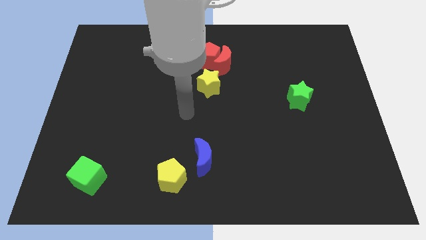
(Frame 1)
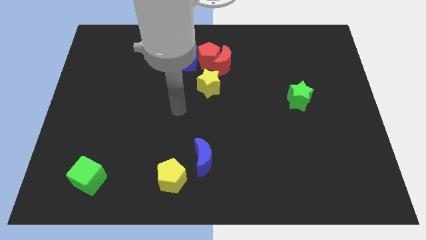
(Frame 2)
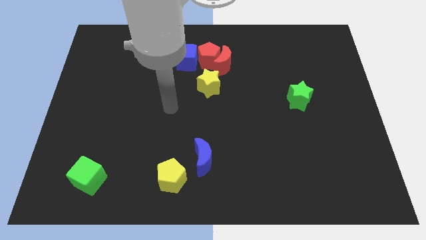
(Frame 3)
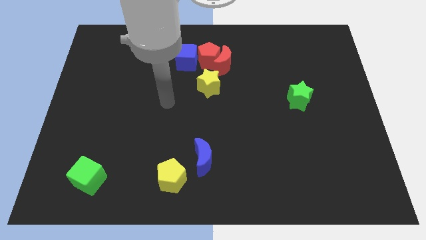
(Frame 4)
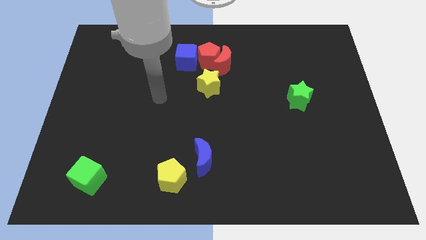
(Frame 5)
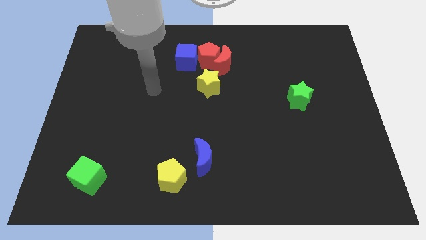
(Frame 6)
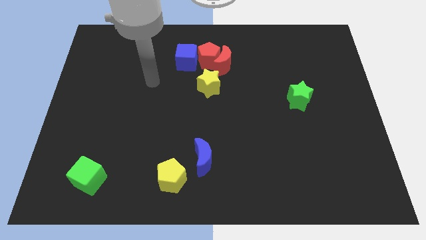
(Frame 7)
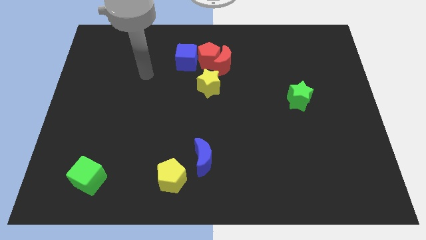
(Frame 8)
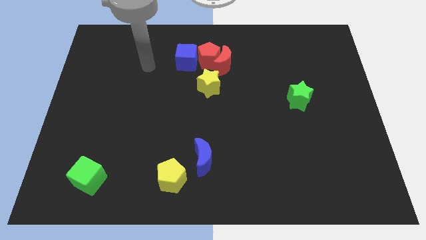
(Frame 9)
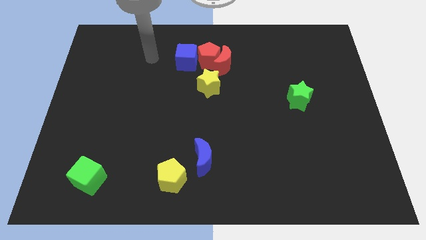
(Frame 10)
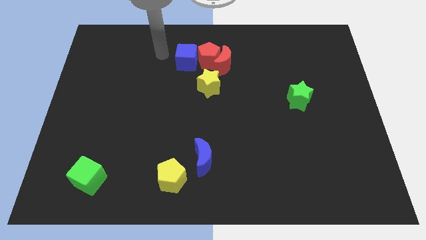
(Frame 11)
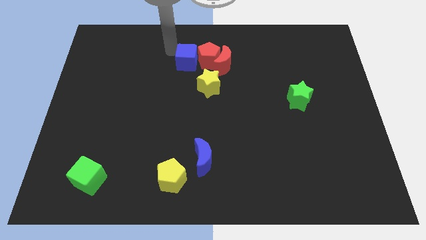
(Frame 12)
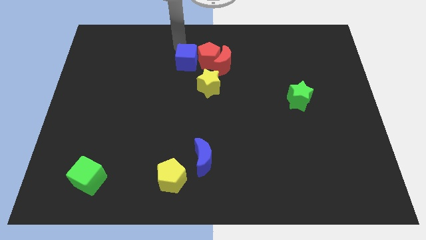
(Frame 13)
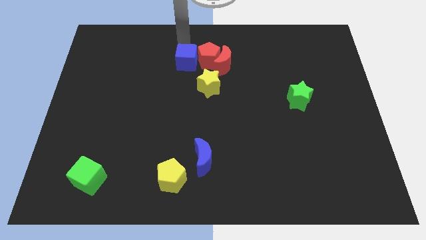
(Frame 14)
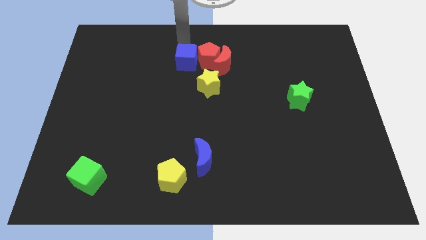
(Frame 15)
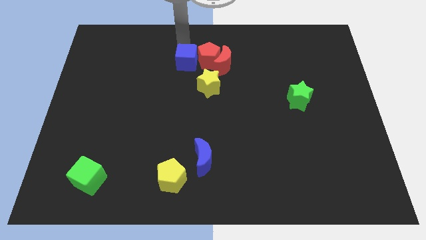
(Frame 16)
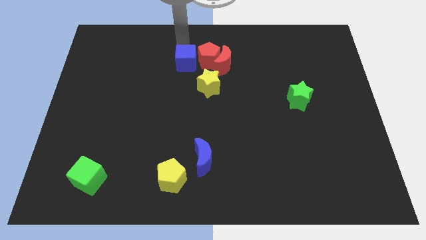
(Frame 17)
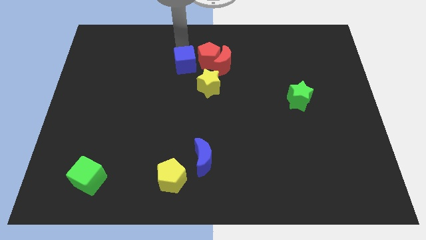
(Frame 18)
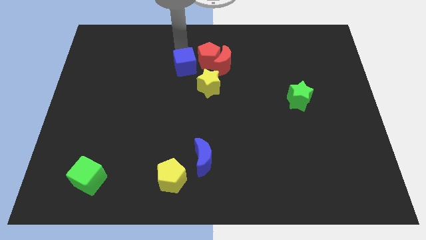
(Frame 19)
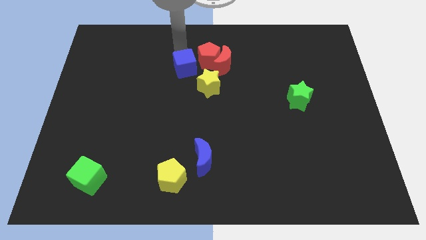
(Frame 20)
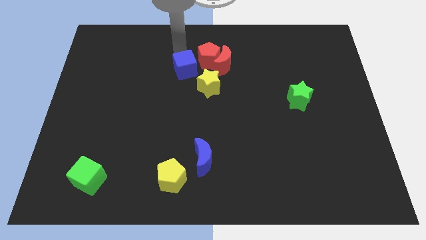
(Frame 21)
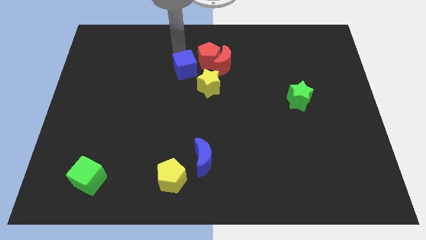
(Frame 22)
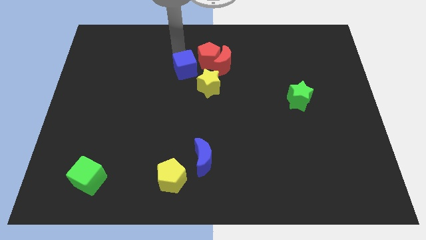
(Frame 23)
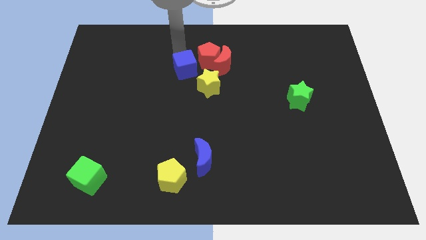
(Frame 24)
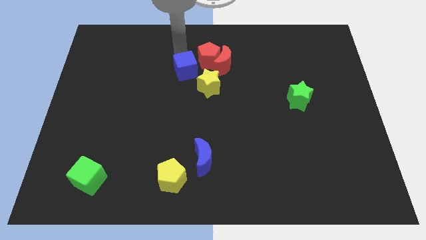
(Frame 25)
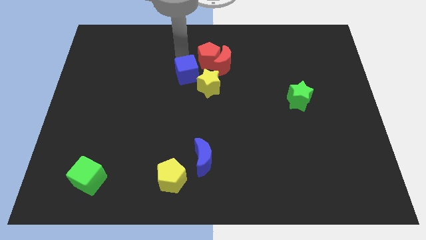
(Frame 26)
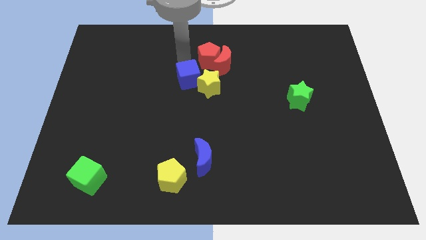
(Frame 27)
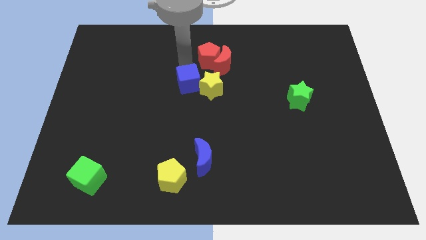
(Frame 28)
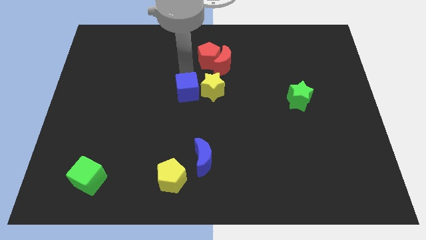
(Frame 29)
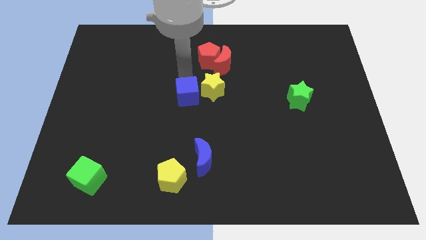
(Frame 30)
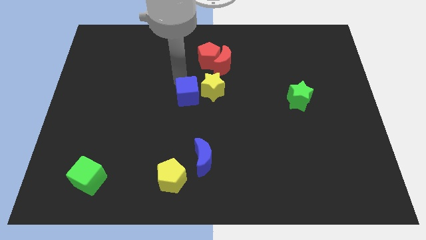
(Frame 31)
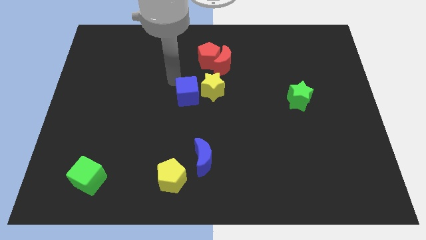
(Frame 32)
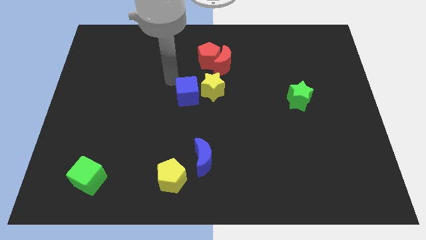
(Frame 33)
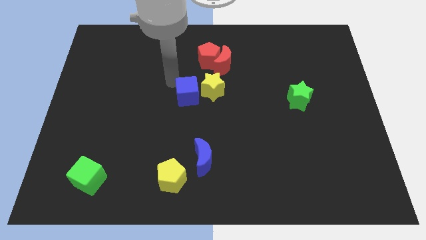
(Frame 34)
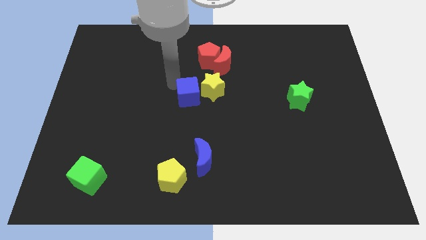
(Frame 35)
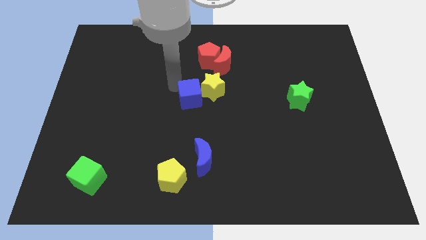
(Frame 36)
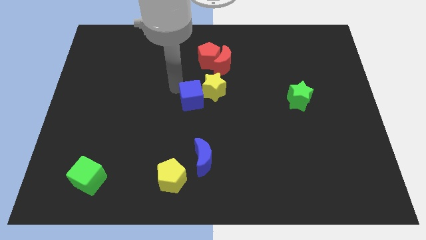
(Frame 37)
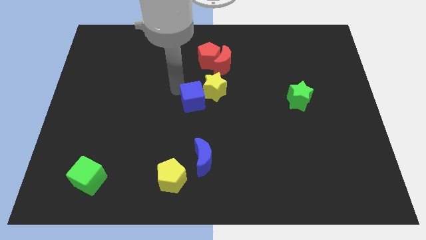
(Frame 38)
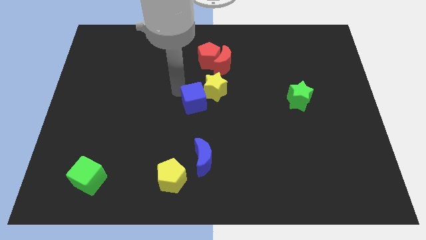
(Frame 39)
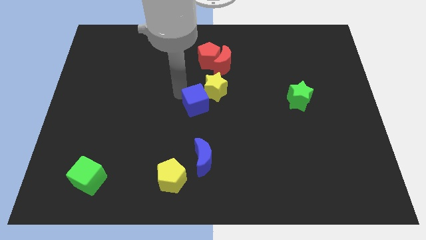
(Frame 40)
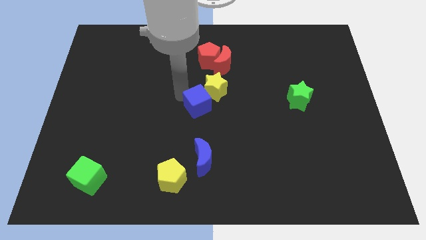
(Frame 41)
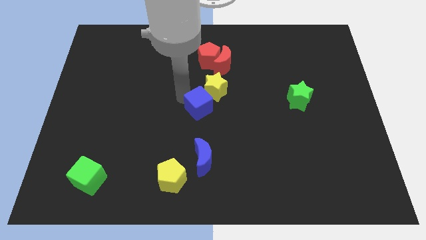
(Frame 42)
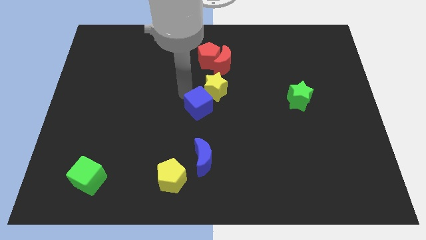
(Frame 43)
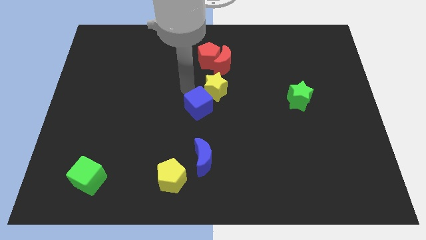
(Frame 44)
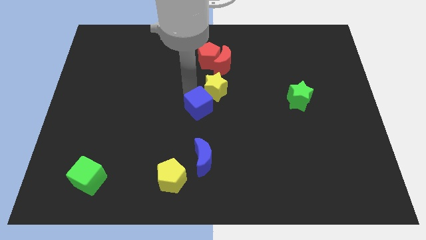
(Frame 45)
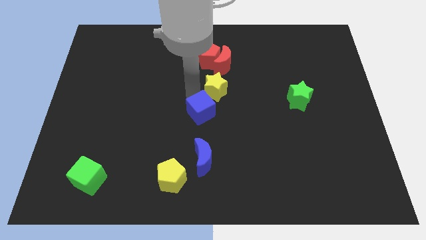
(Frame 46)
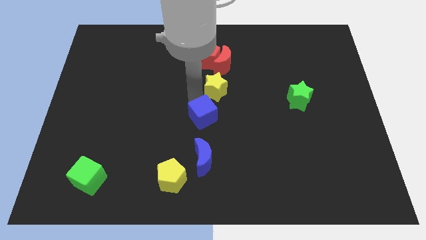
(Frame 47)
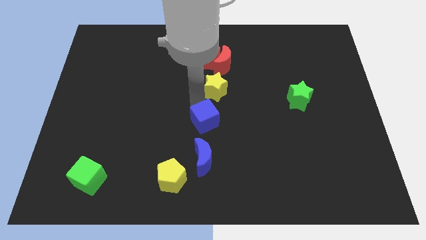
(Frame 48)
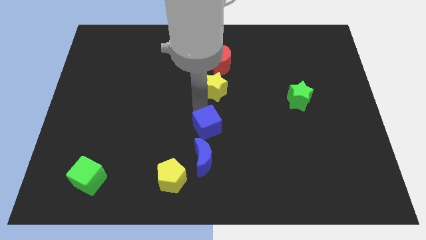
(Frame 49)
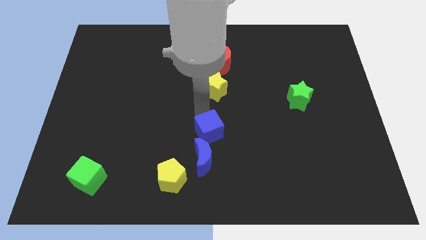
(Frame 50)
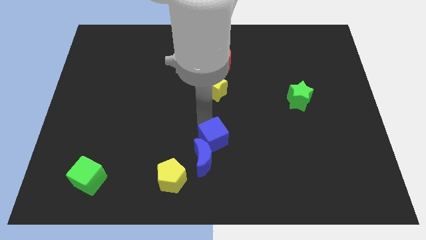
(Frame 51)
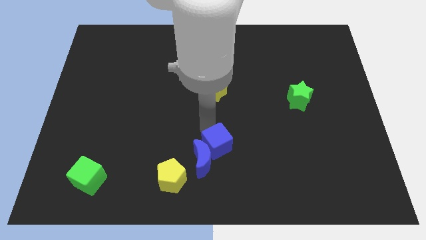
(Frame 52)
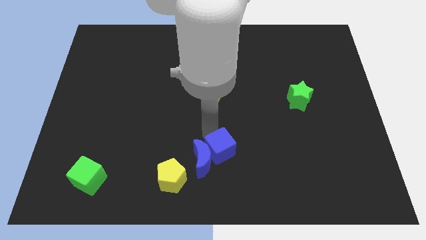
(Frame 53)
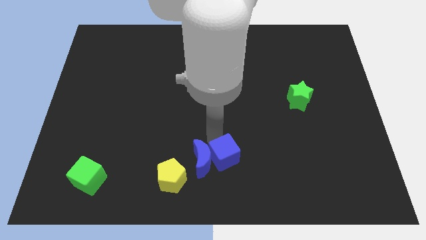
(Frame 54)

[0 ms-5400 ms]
move the blue cube to the bottom

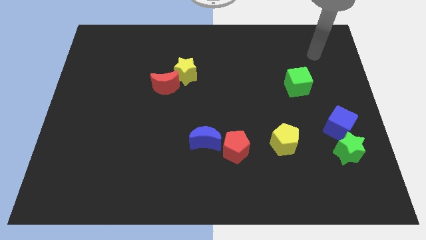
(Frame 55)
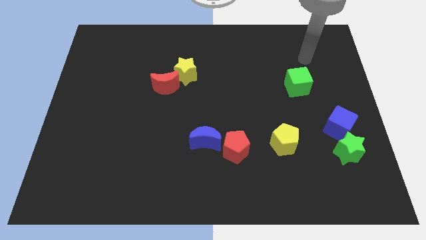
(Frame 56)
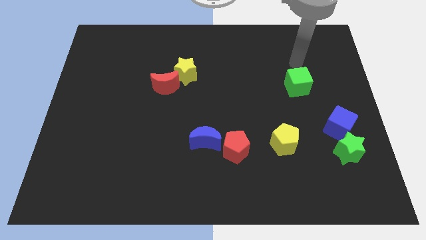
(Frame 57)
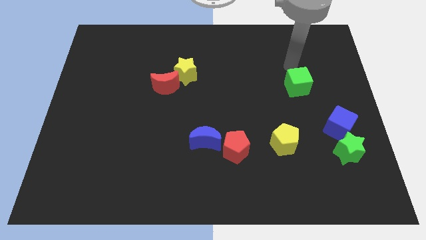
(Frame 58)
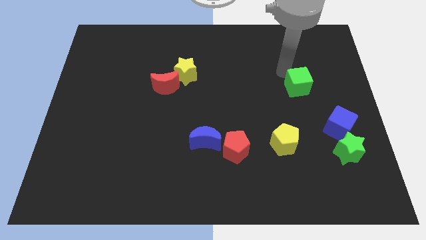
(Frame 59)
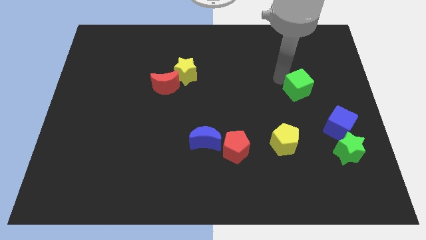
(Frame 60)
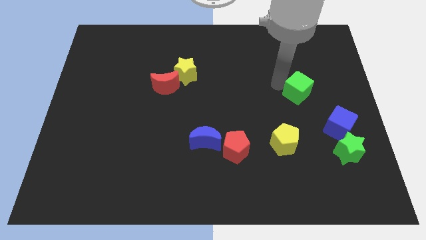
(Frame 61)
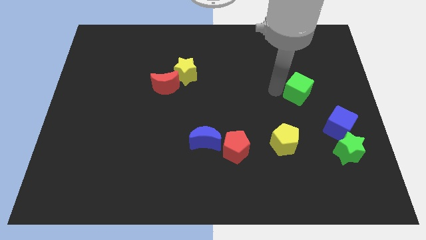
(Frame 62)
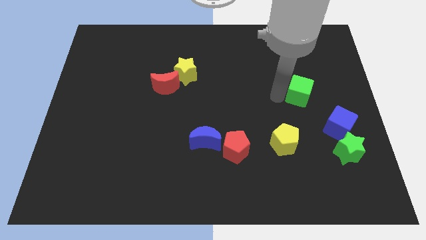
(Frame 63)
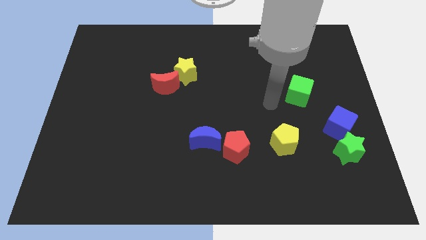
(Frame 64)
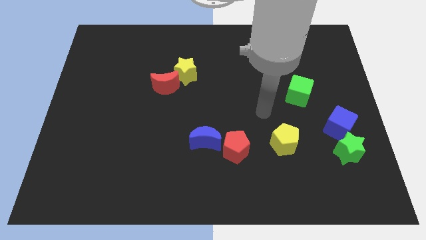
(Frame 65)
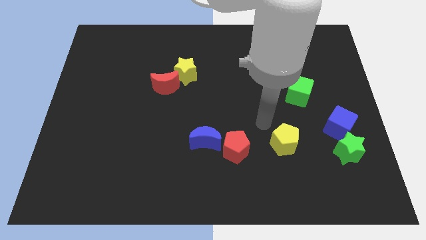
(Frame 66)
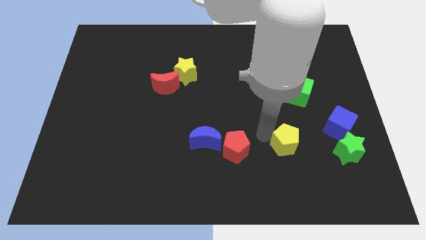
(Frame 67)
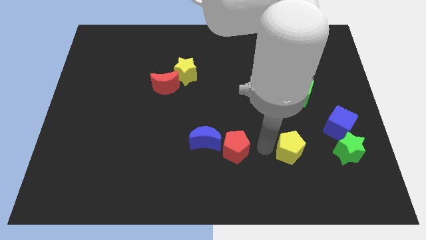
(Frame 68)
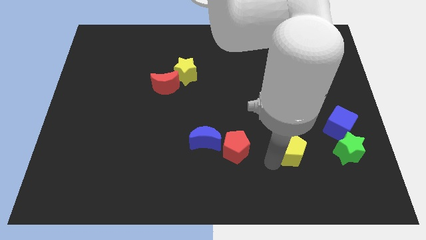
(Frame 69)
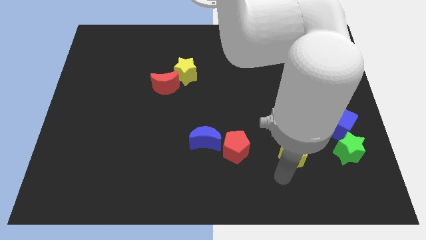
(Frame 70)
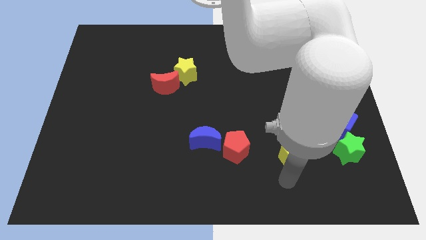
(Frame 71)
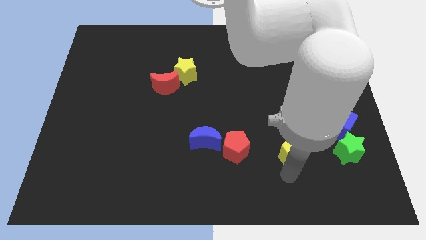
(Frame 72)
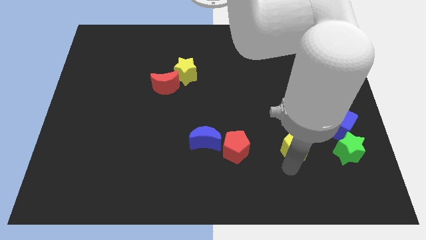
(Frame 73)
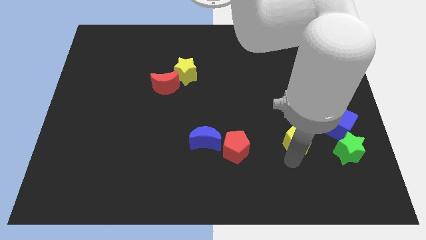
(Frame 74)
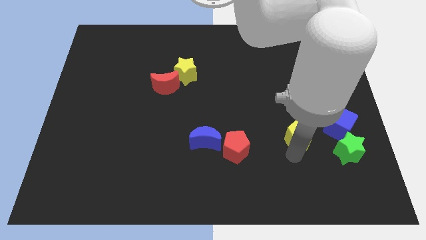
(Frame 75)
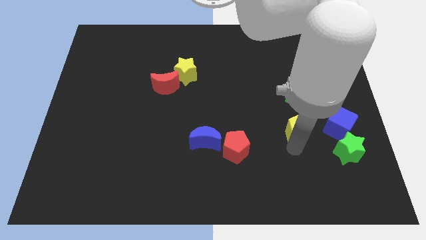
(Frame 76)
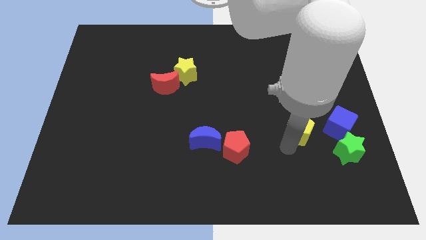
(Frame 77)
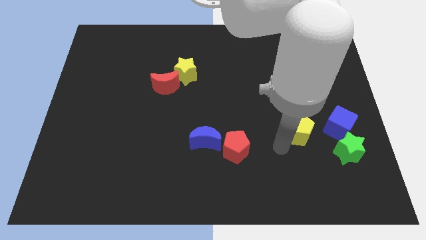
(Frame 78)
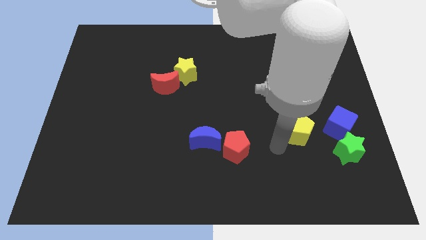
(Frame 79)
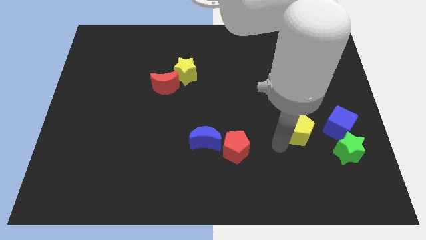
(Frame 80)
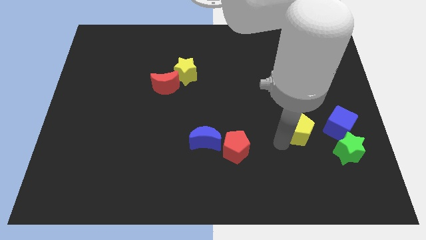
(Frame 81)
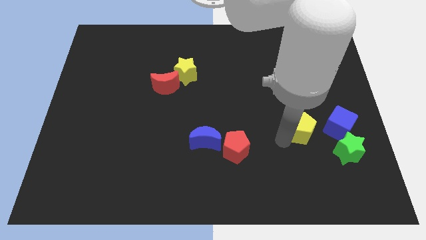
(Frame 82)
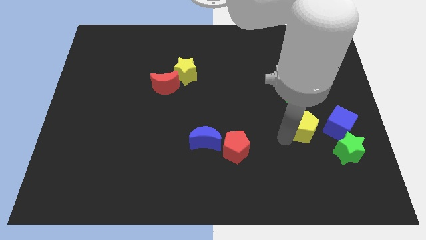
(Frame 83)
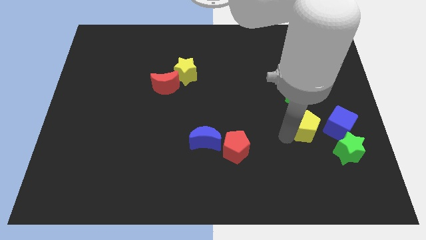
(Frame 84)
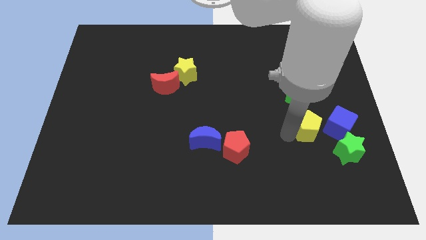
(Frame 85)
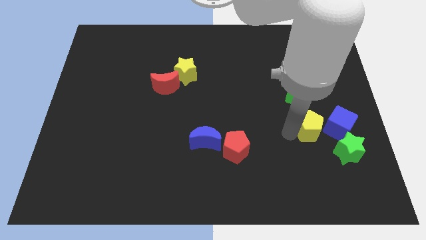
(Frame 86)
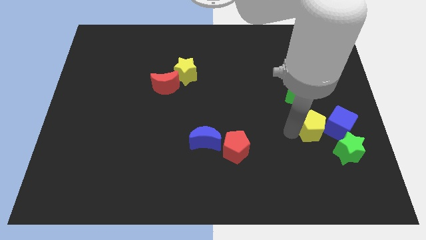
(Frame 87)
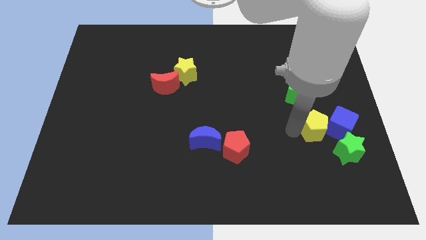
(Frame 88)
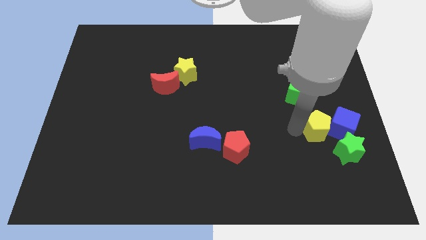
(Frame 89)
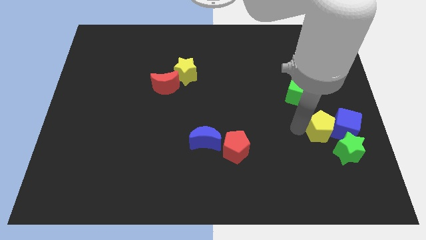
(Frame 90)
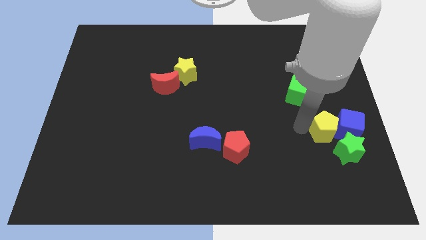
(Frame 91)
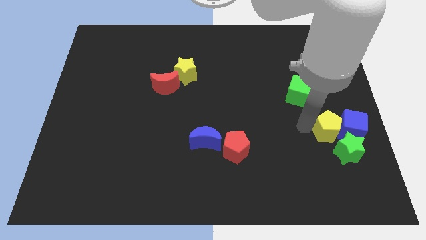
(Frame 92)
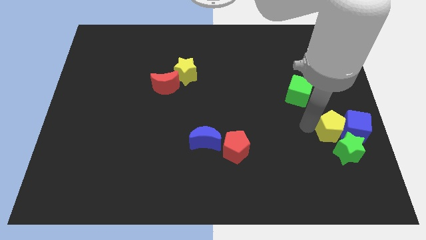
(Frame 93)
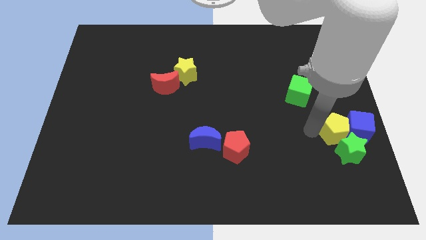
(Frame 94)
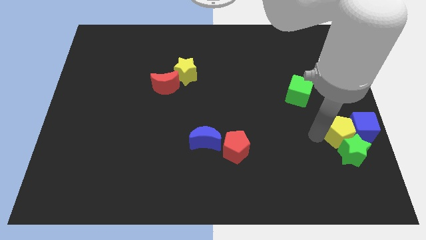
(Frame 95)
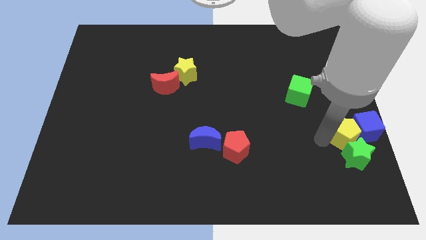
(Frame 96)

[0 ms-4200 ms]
move the yellow pentagon to the right side
